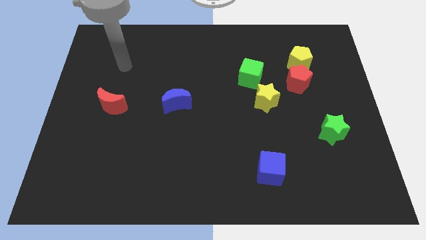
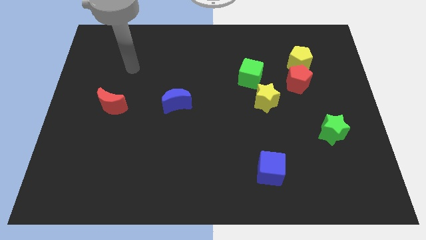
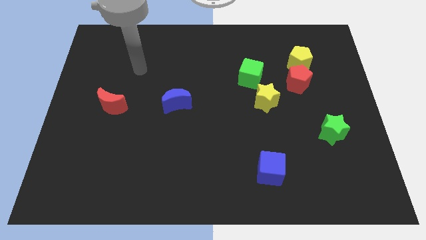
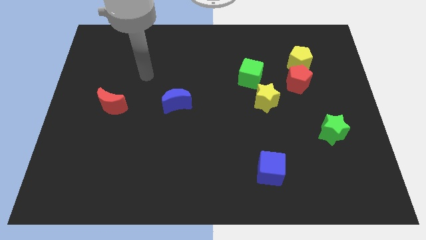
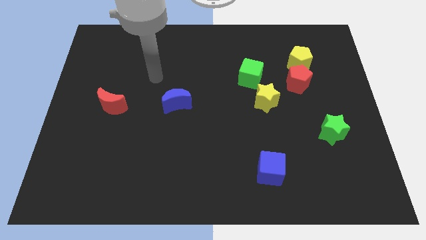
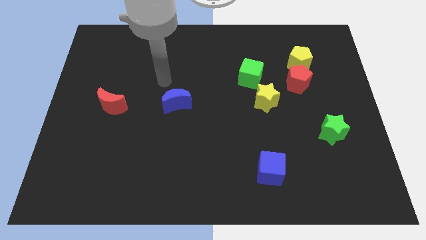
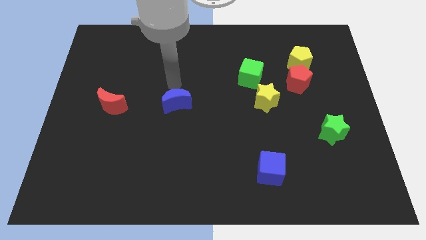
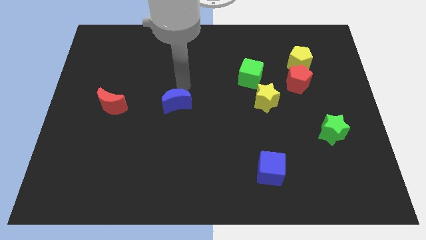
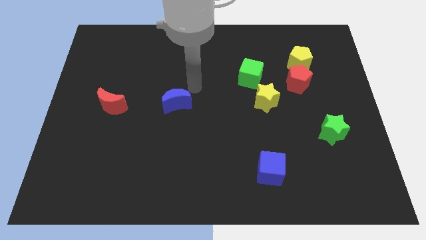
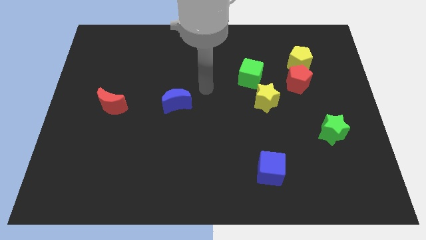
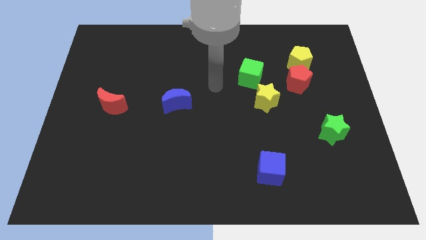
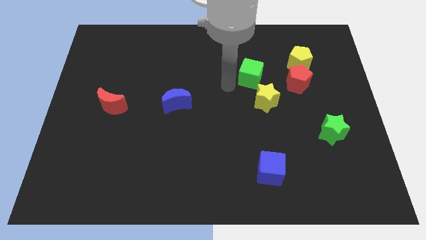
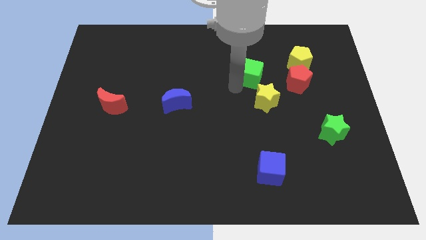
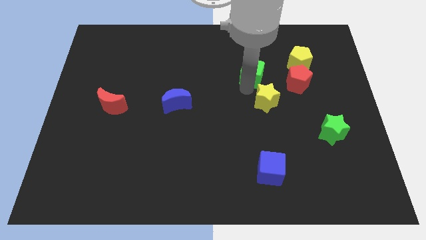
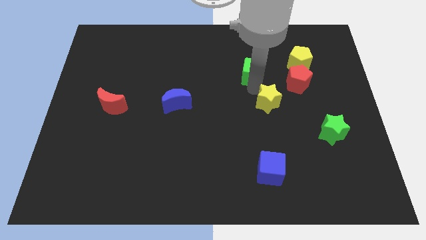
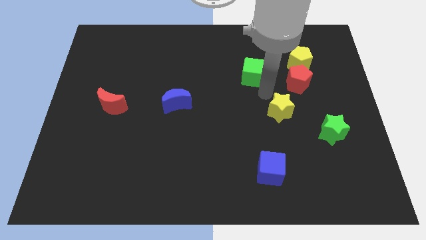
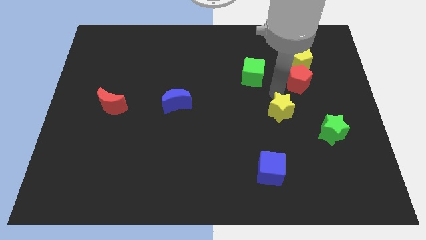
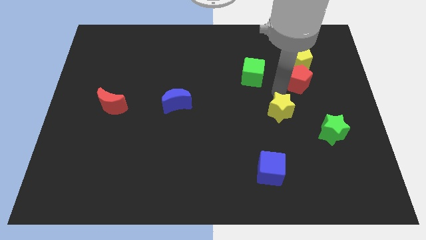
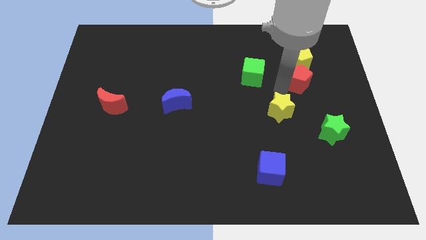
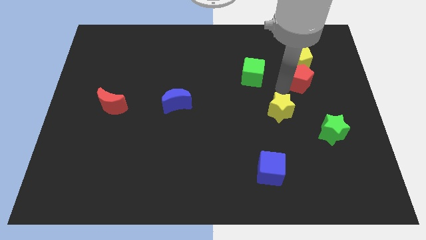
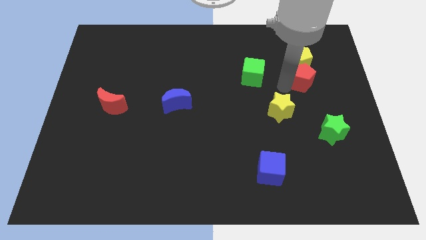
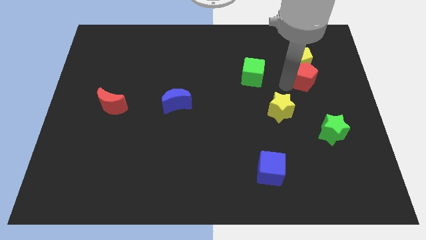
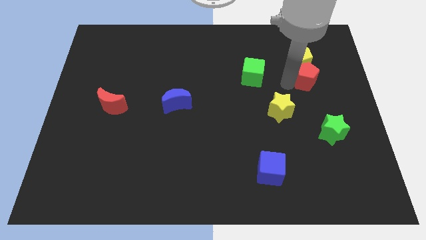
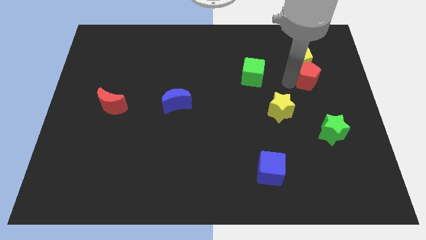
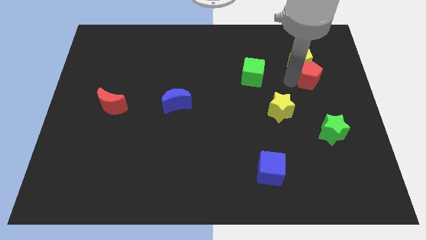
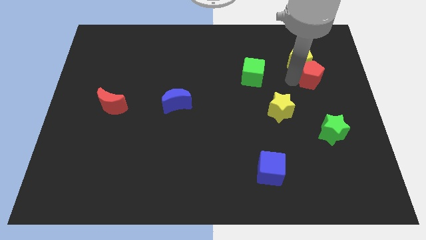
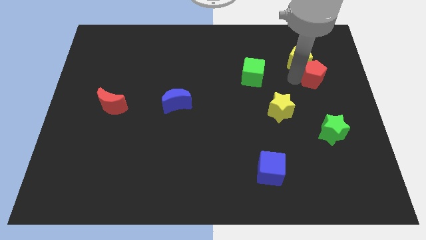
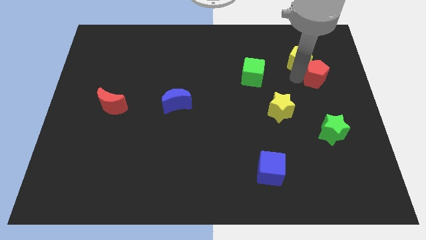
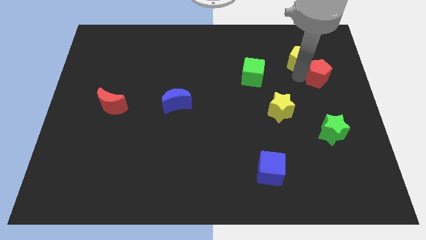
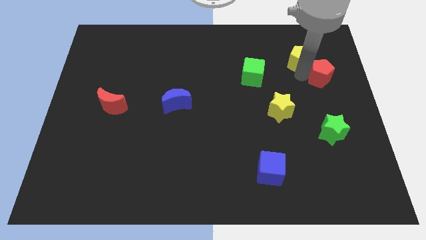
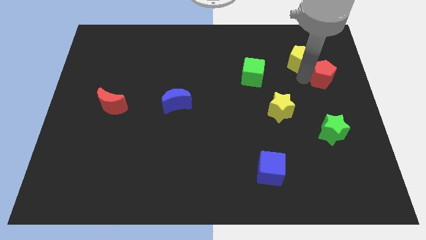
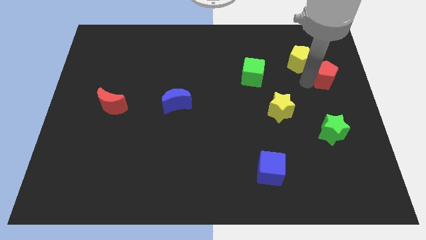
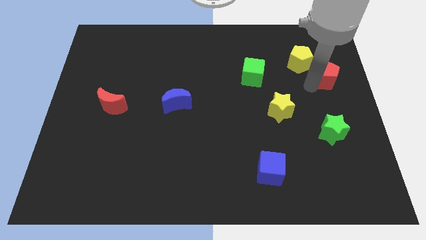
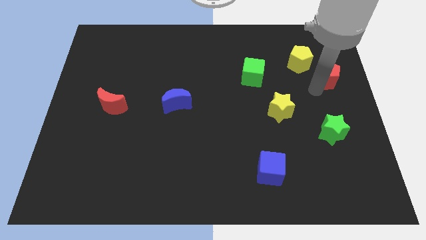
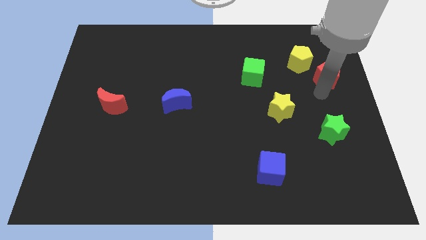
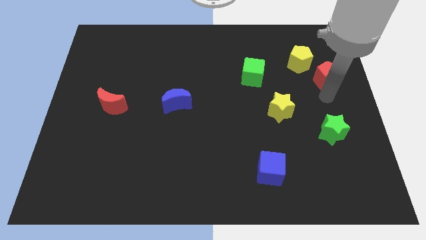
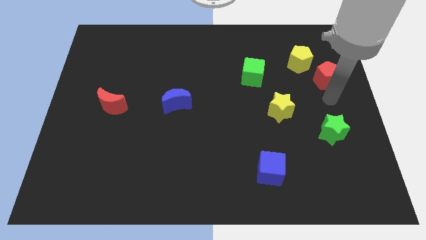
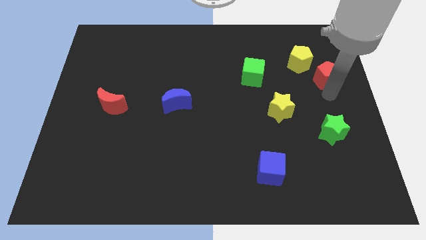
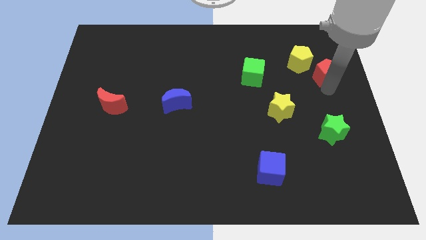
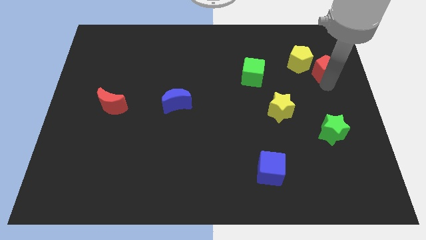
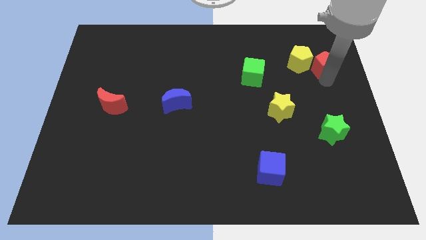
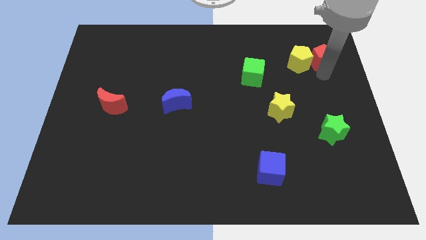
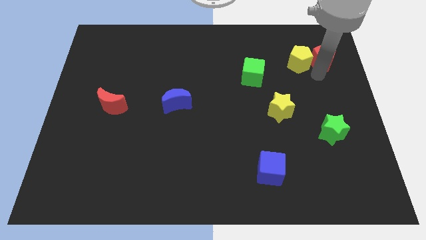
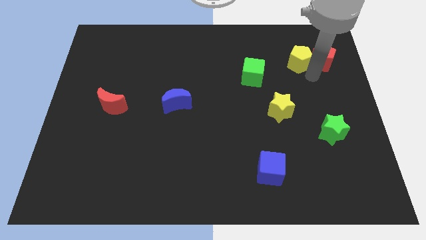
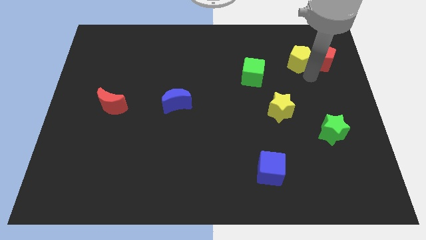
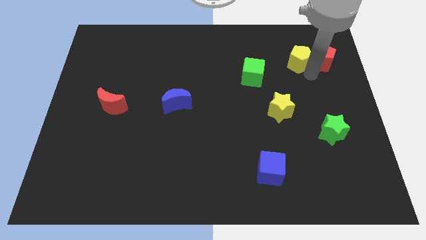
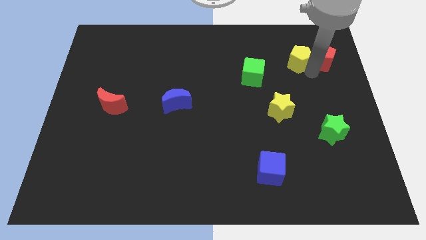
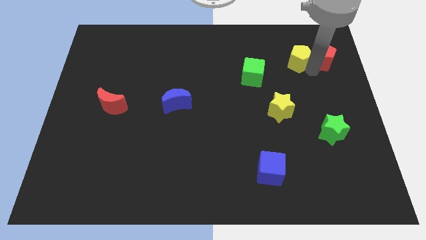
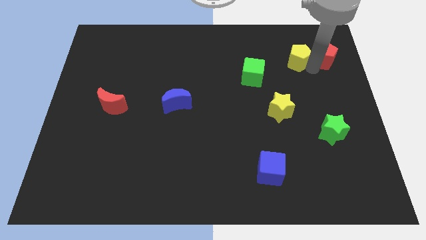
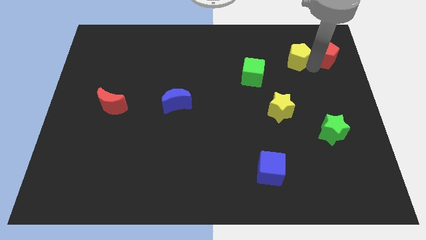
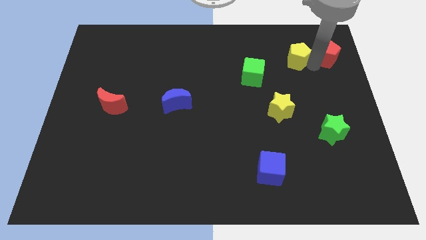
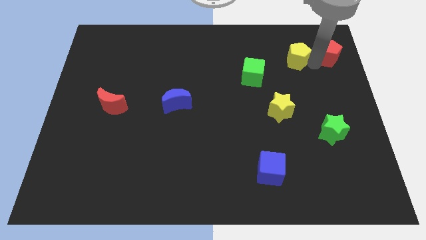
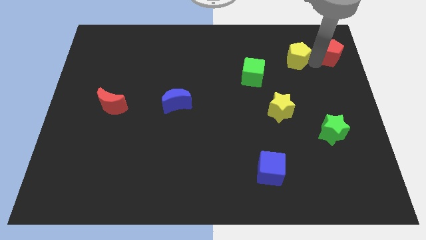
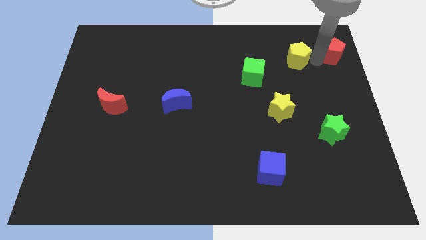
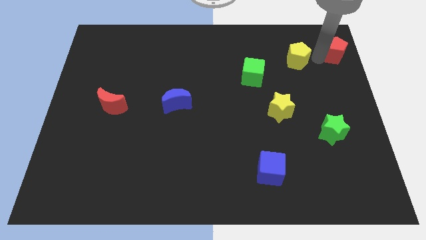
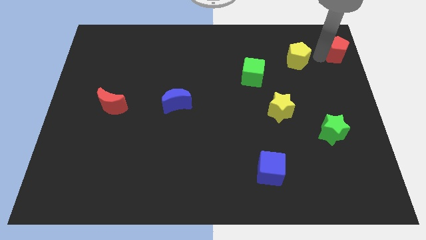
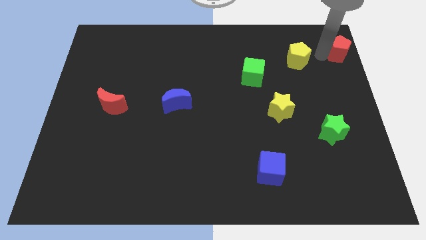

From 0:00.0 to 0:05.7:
slide the red pentagon to the upper right corner

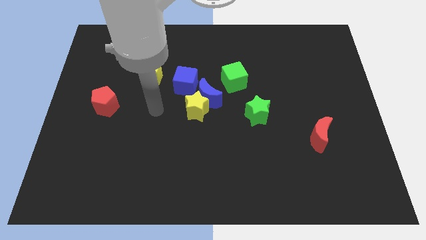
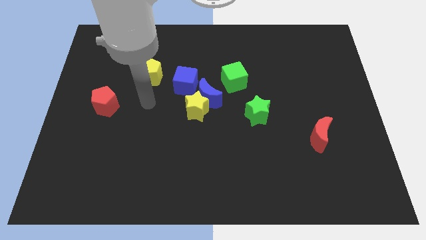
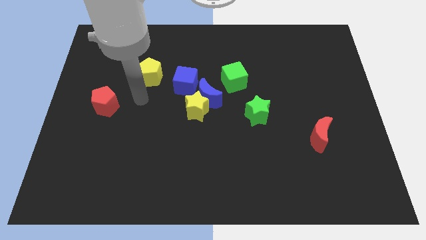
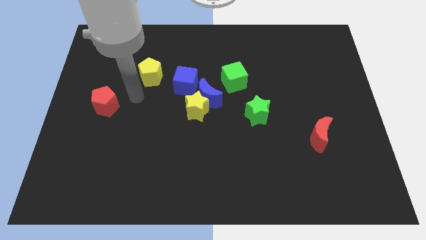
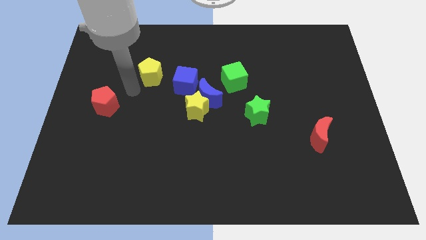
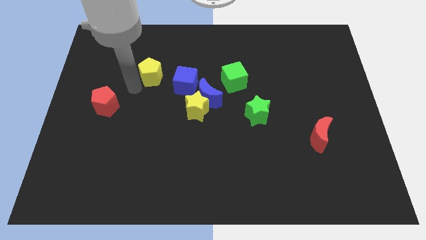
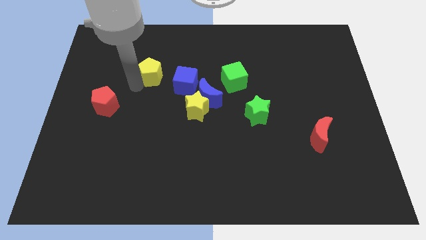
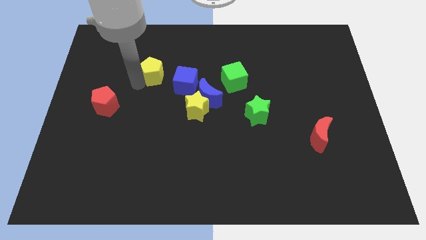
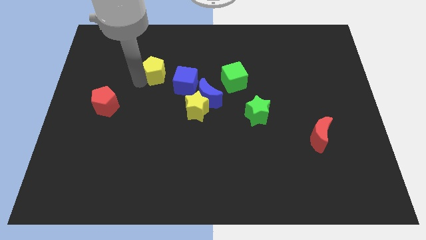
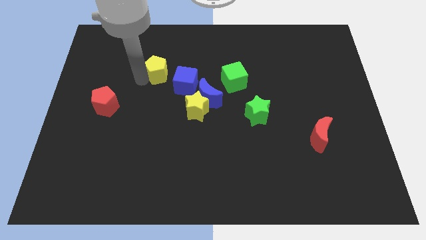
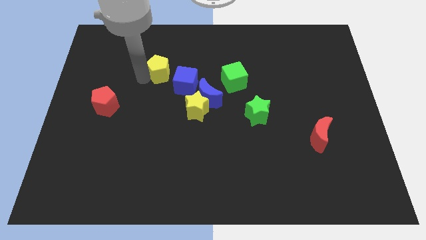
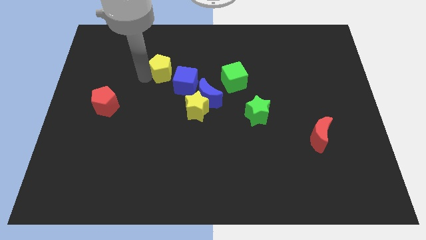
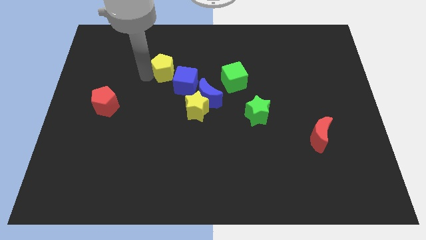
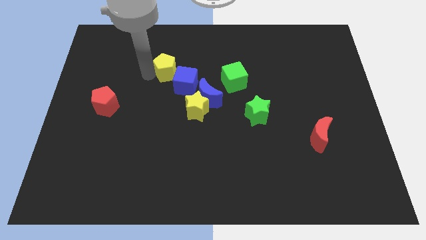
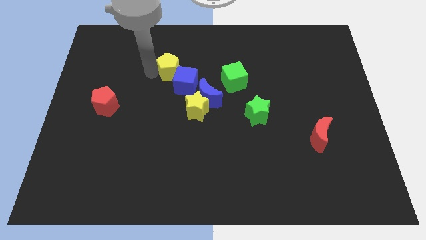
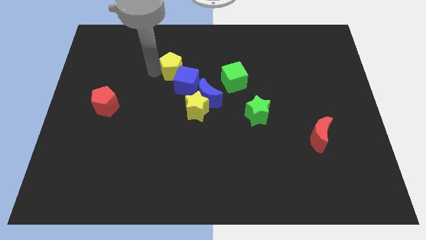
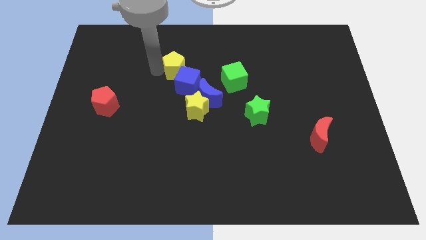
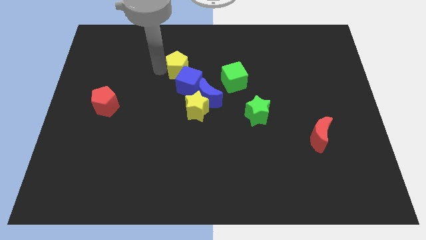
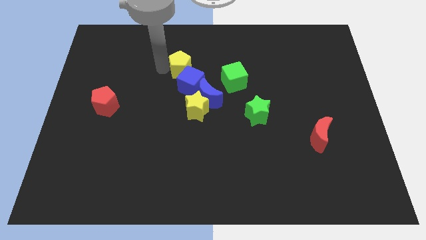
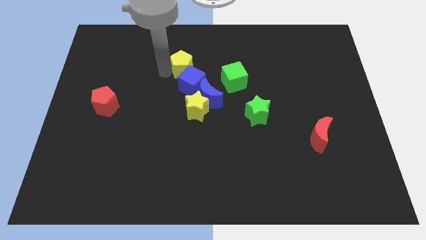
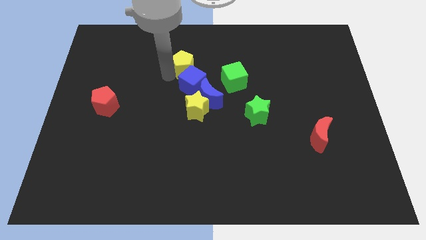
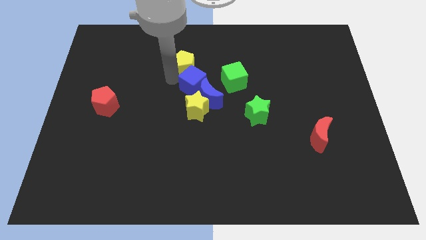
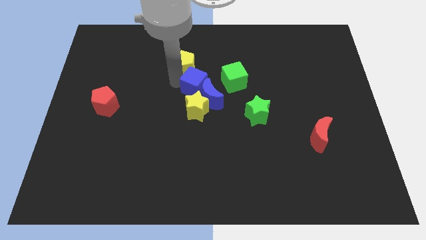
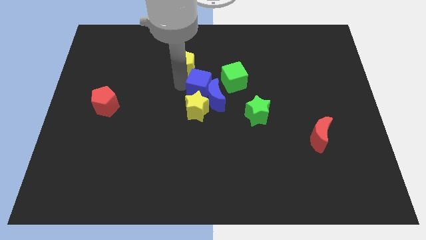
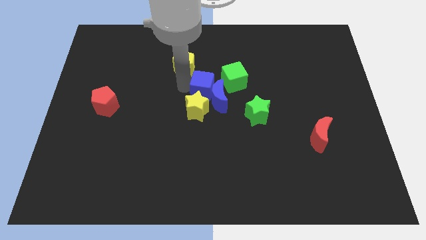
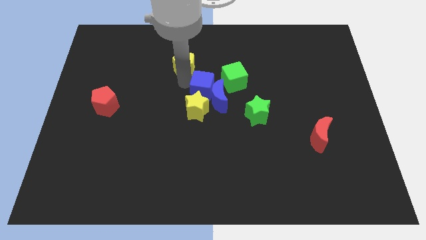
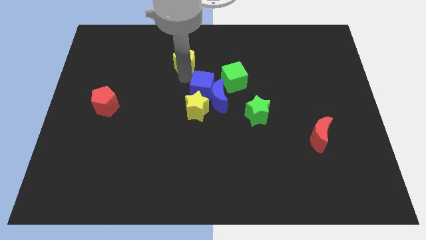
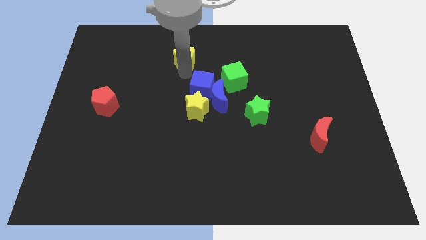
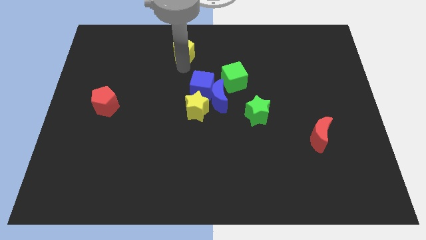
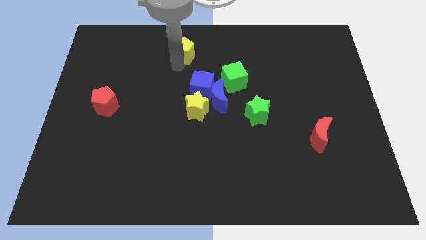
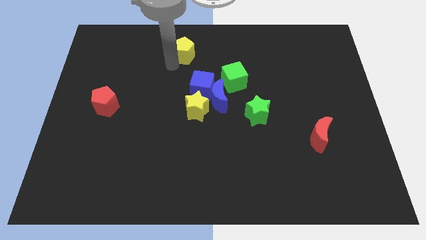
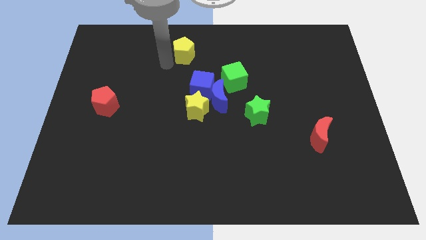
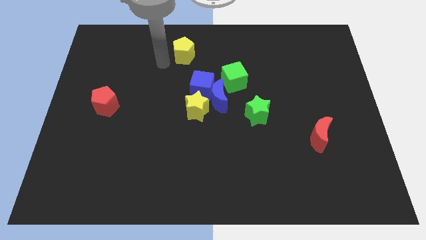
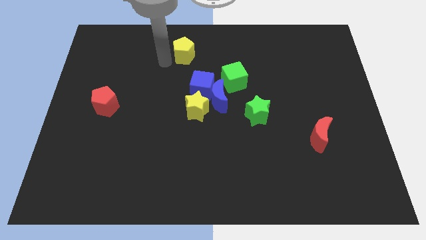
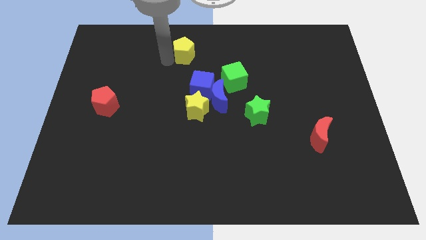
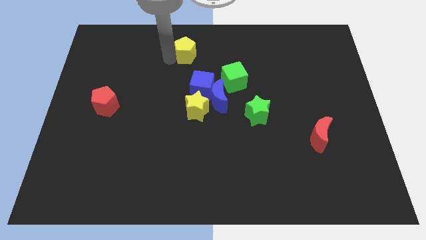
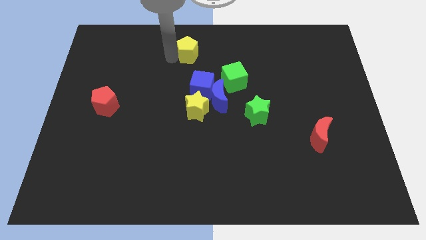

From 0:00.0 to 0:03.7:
move the yellow pentagon to the towards your base
